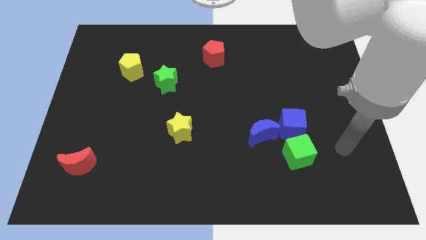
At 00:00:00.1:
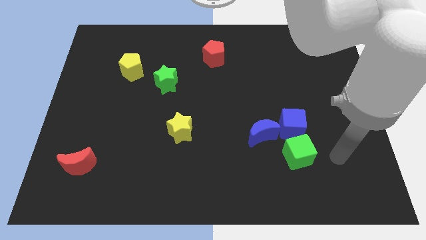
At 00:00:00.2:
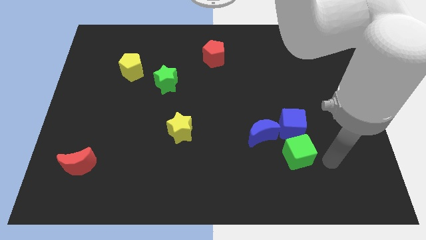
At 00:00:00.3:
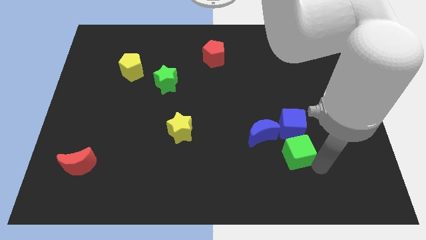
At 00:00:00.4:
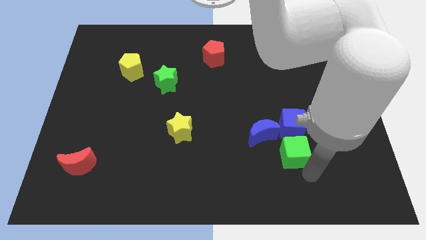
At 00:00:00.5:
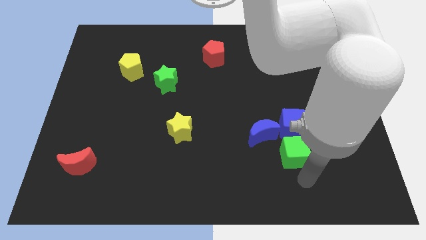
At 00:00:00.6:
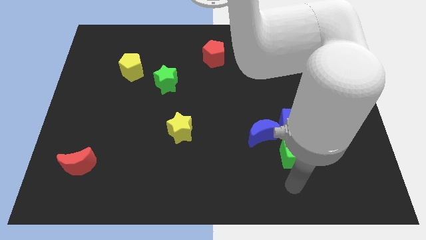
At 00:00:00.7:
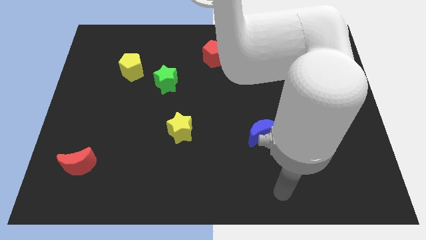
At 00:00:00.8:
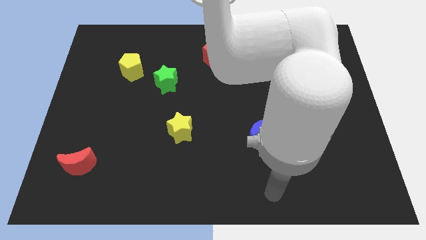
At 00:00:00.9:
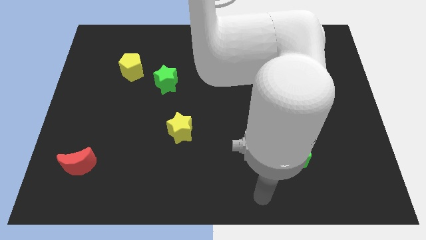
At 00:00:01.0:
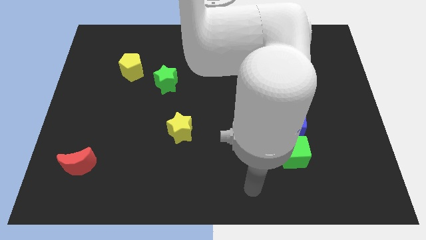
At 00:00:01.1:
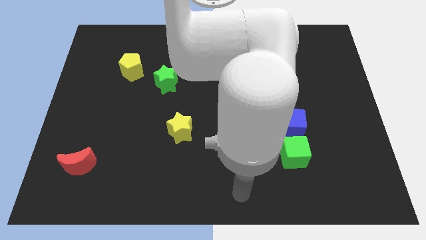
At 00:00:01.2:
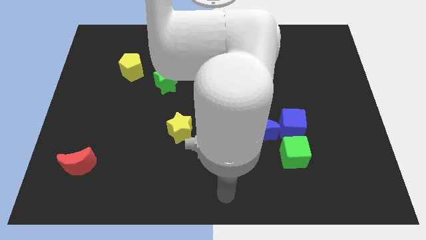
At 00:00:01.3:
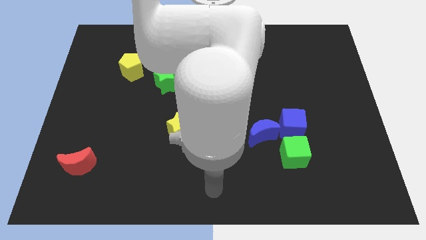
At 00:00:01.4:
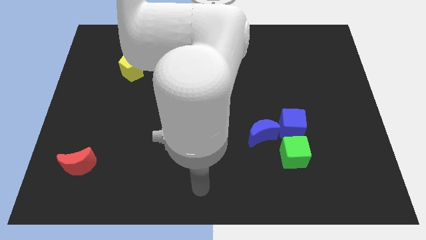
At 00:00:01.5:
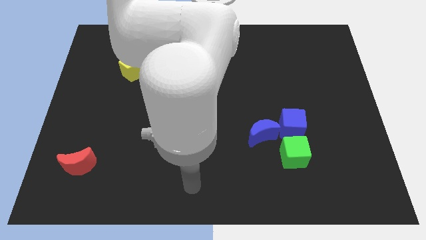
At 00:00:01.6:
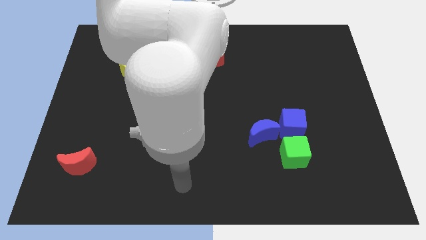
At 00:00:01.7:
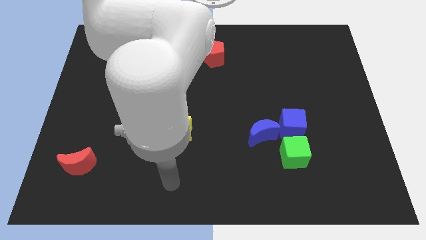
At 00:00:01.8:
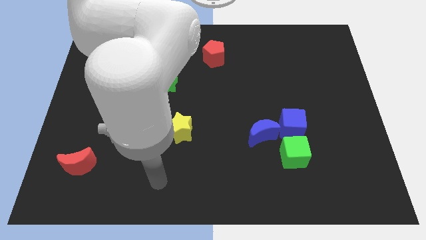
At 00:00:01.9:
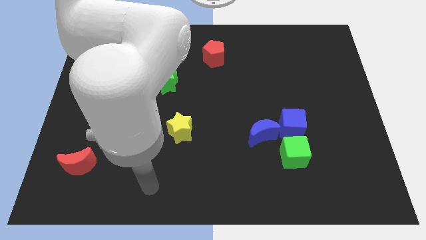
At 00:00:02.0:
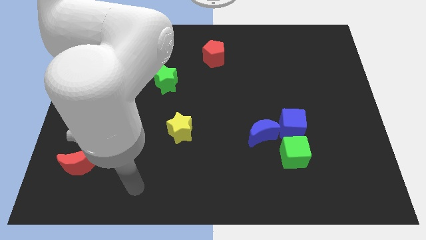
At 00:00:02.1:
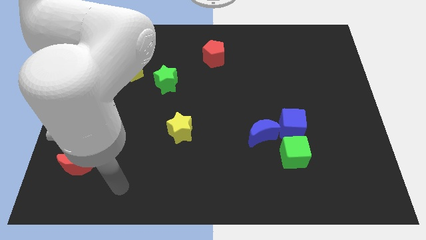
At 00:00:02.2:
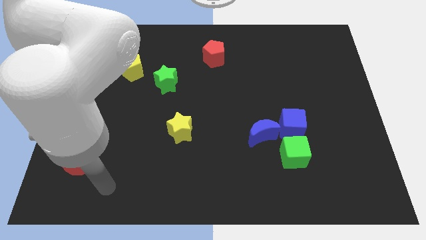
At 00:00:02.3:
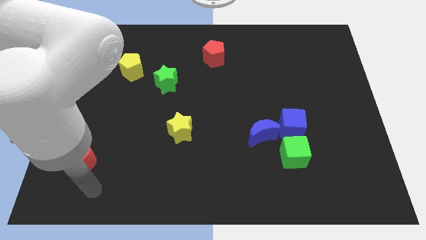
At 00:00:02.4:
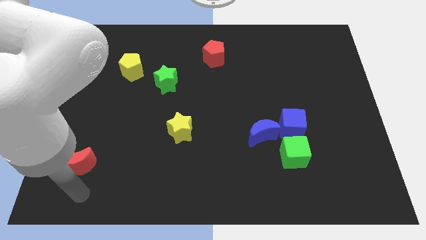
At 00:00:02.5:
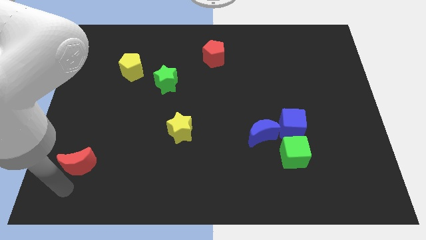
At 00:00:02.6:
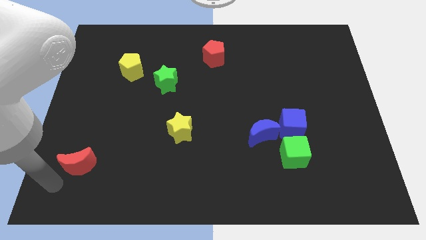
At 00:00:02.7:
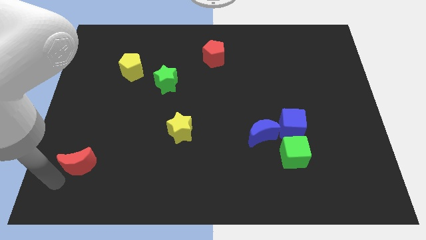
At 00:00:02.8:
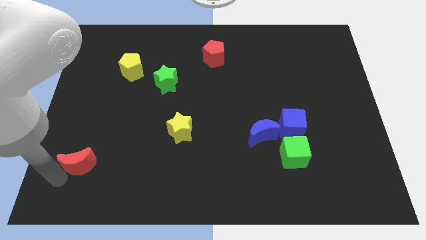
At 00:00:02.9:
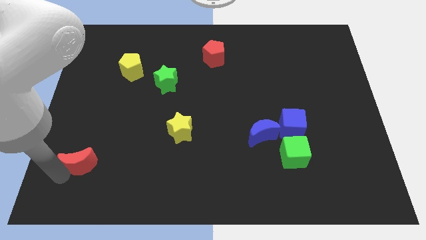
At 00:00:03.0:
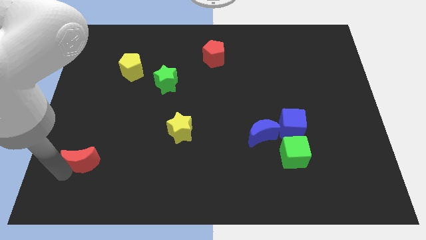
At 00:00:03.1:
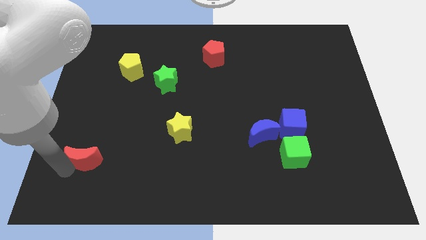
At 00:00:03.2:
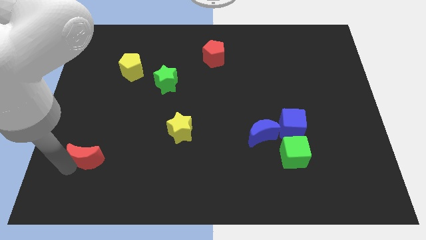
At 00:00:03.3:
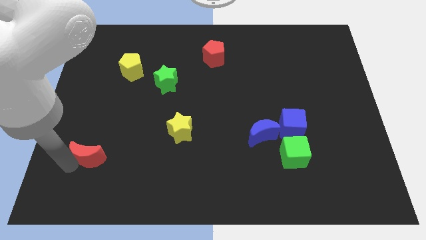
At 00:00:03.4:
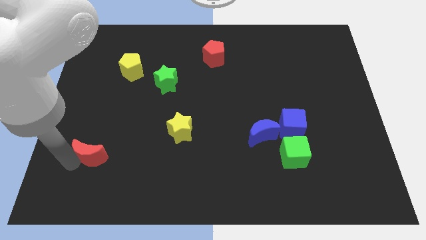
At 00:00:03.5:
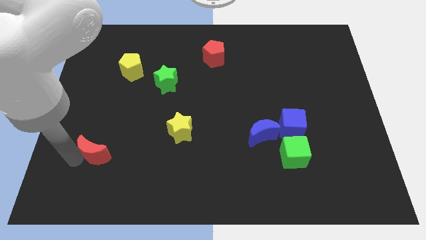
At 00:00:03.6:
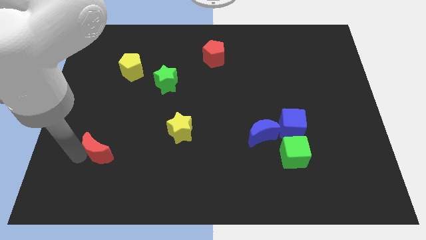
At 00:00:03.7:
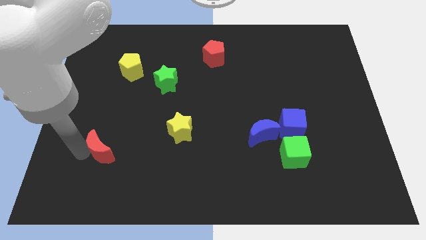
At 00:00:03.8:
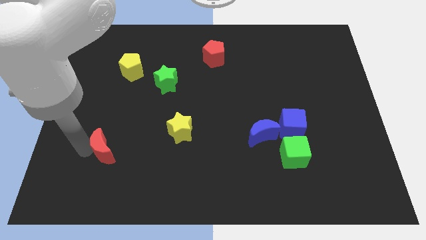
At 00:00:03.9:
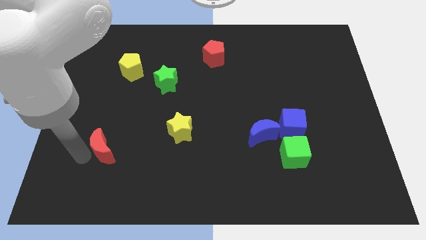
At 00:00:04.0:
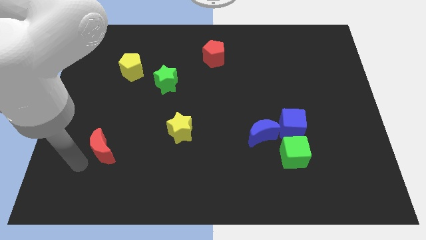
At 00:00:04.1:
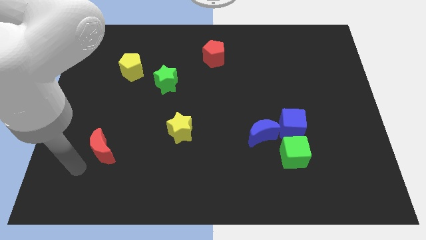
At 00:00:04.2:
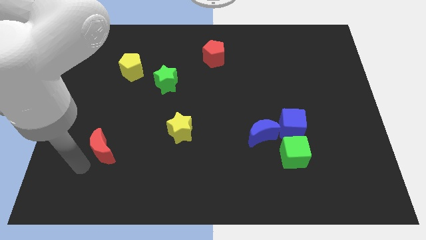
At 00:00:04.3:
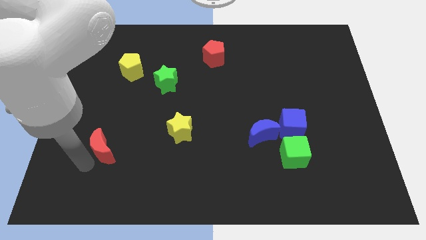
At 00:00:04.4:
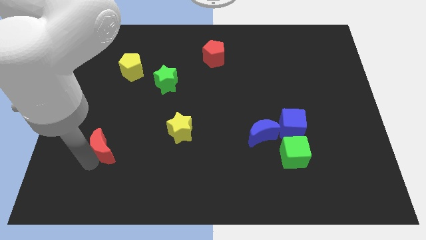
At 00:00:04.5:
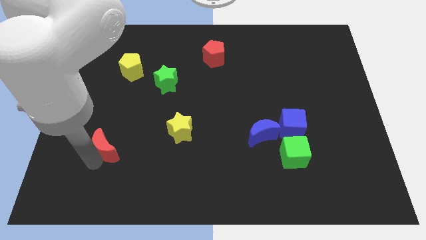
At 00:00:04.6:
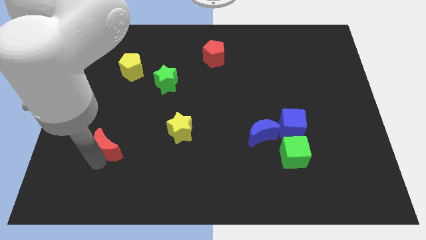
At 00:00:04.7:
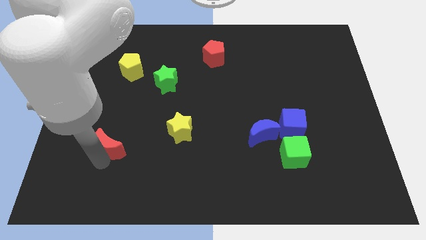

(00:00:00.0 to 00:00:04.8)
push the red moon a bit diagonally upwards and to the right

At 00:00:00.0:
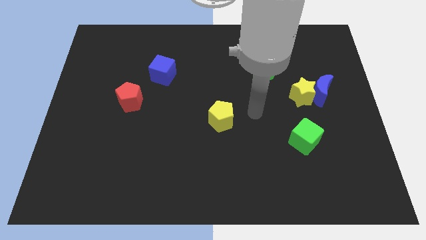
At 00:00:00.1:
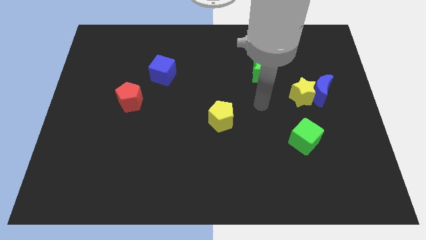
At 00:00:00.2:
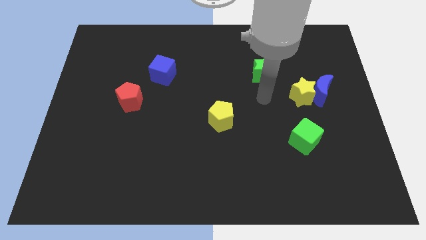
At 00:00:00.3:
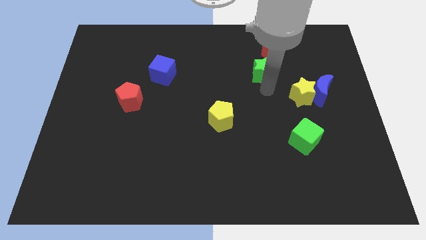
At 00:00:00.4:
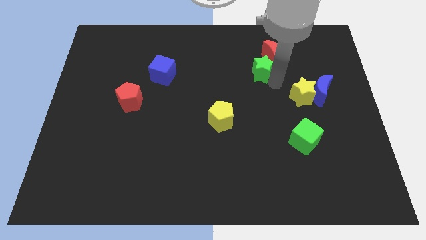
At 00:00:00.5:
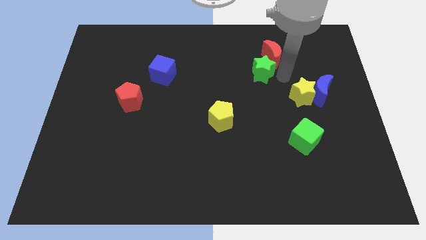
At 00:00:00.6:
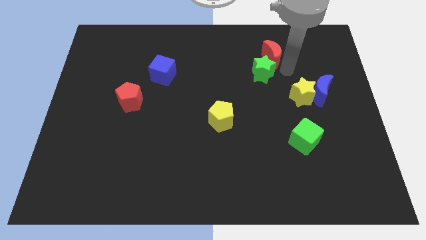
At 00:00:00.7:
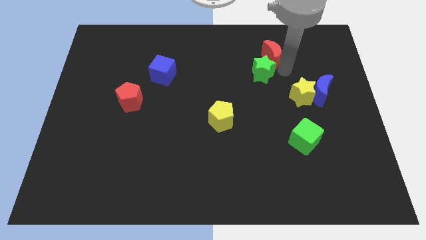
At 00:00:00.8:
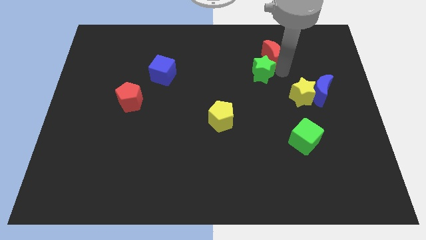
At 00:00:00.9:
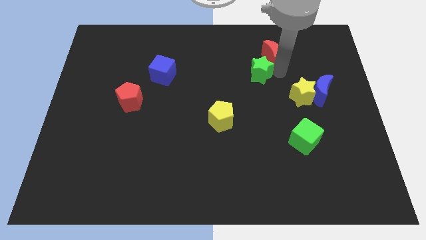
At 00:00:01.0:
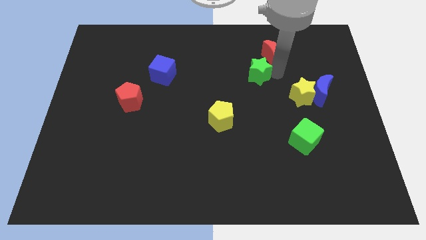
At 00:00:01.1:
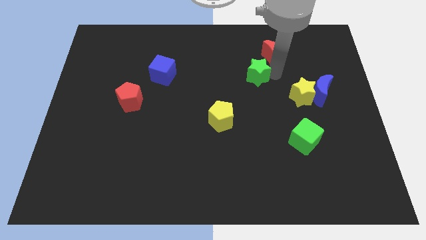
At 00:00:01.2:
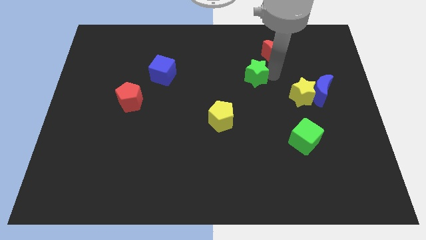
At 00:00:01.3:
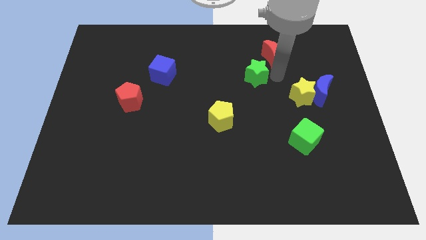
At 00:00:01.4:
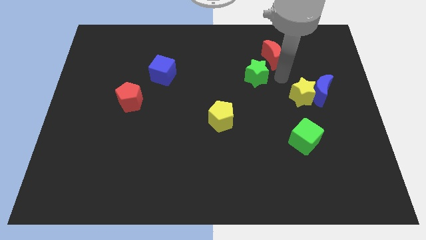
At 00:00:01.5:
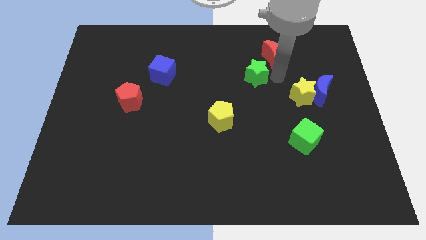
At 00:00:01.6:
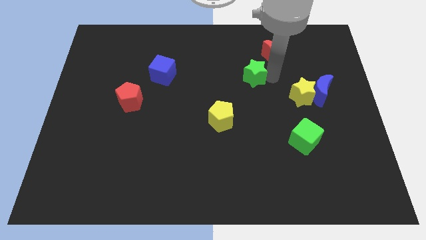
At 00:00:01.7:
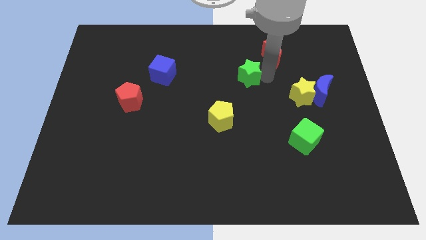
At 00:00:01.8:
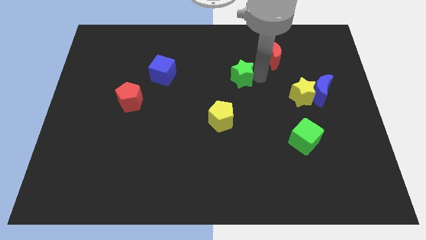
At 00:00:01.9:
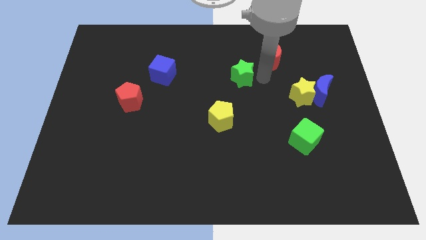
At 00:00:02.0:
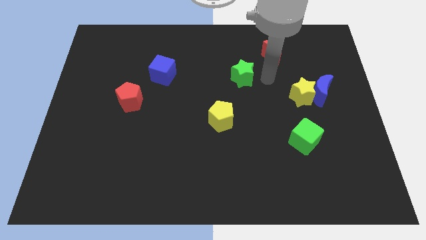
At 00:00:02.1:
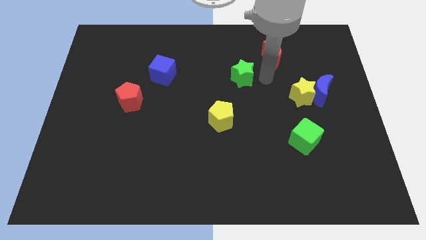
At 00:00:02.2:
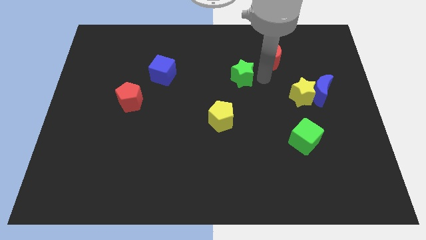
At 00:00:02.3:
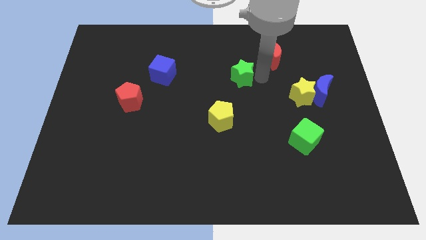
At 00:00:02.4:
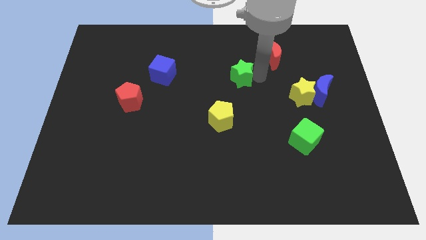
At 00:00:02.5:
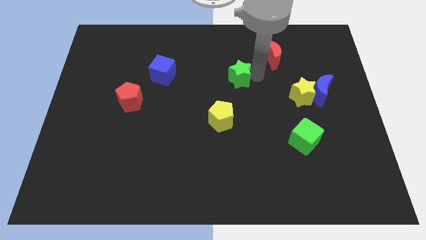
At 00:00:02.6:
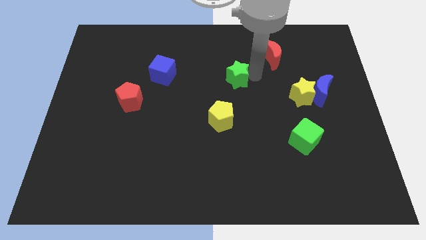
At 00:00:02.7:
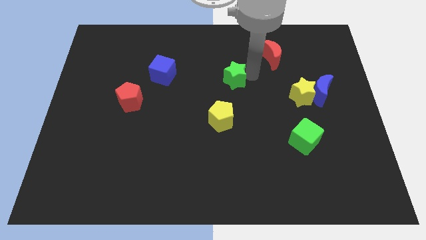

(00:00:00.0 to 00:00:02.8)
move the green star left slightly

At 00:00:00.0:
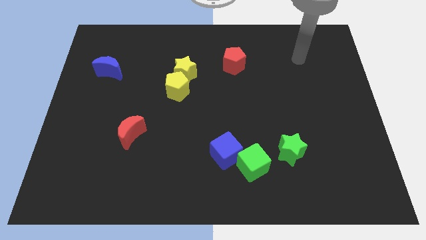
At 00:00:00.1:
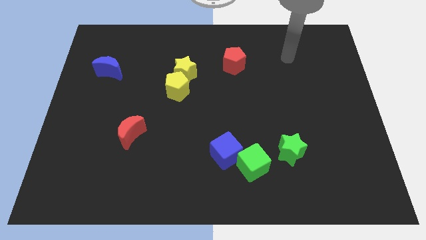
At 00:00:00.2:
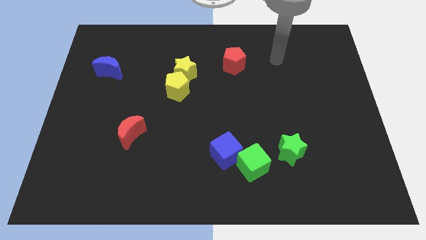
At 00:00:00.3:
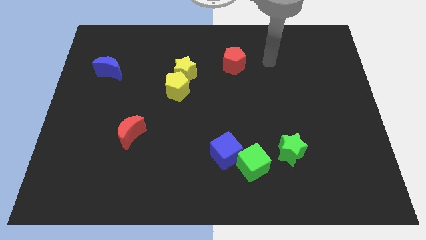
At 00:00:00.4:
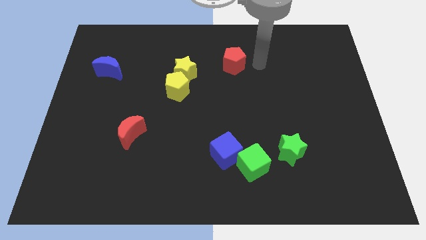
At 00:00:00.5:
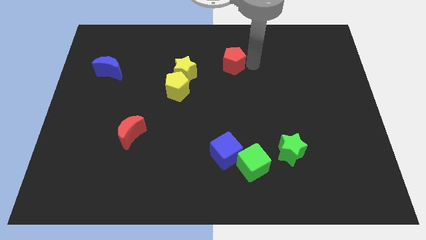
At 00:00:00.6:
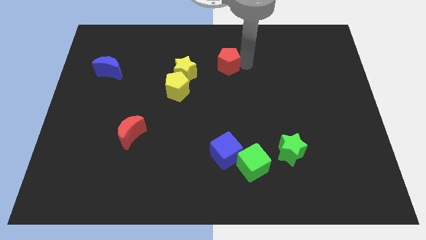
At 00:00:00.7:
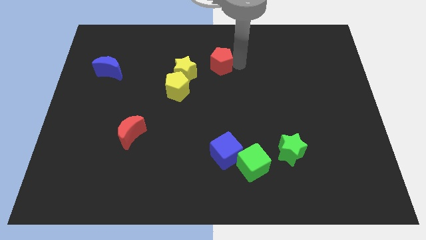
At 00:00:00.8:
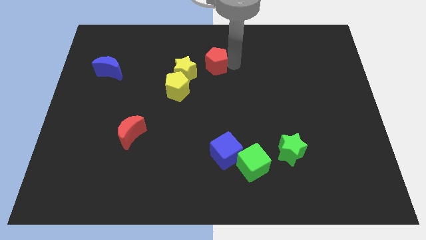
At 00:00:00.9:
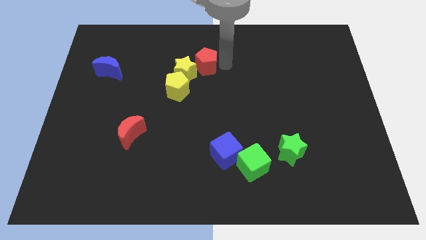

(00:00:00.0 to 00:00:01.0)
move the red pentagon a little to the left
